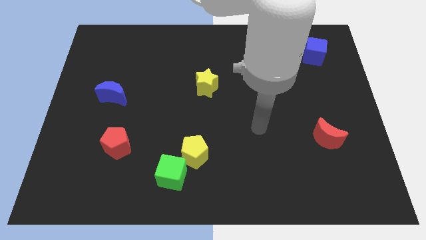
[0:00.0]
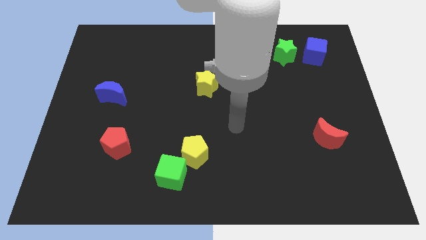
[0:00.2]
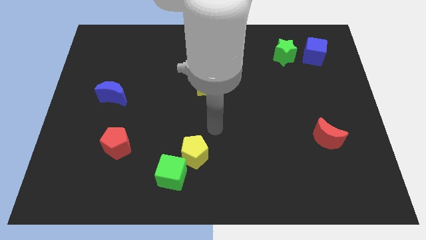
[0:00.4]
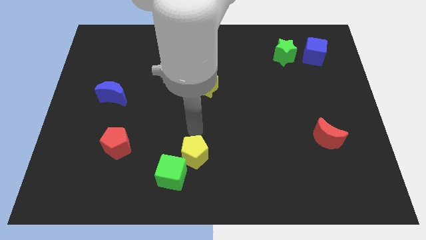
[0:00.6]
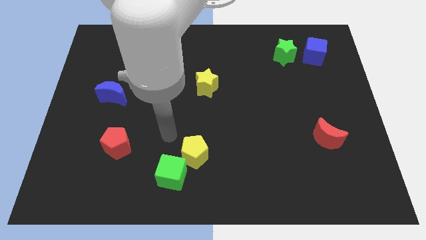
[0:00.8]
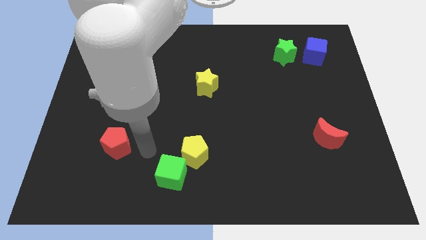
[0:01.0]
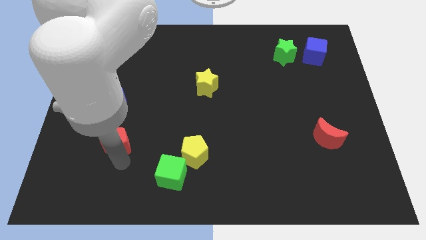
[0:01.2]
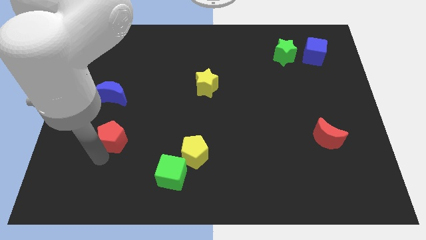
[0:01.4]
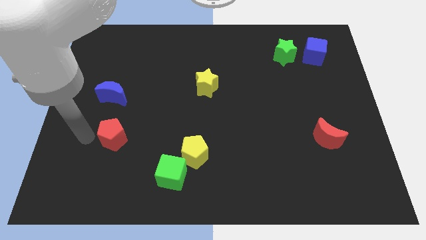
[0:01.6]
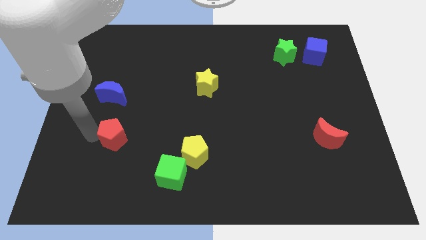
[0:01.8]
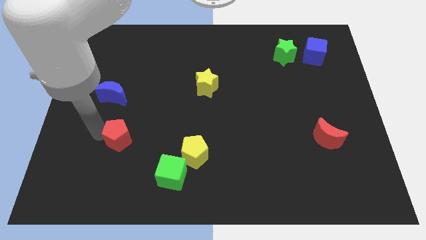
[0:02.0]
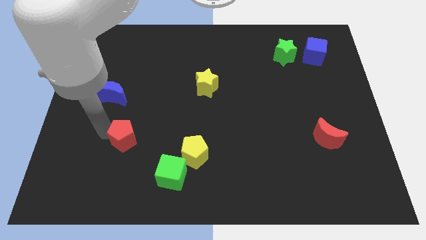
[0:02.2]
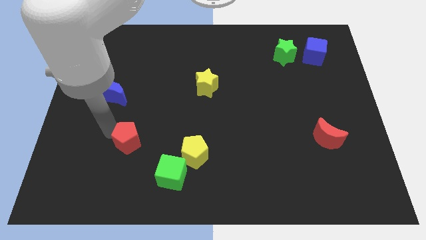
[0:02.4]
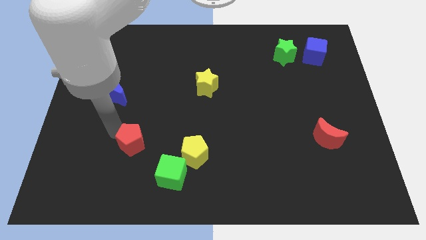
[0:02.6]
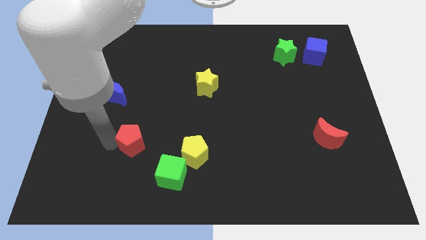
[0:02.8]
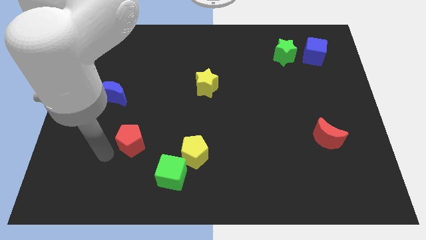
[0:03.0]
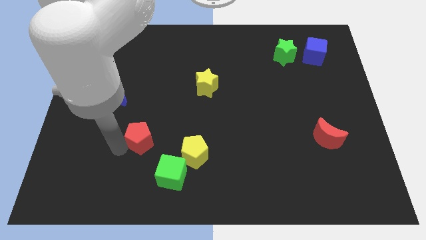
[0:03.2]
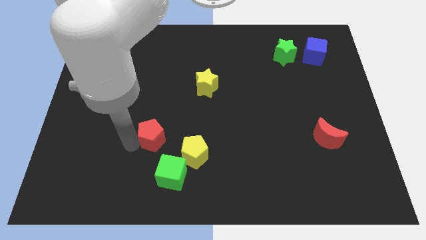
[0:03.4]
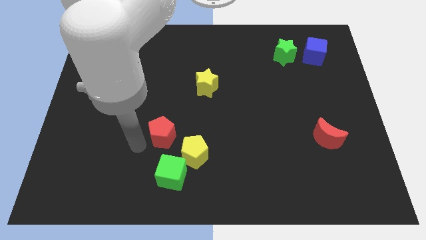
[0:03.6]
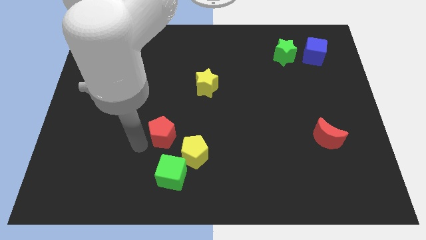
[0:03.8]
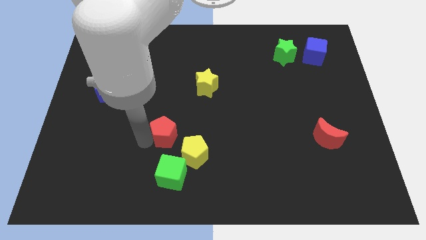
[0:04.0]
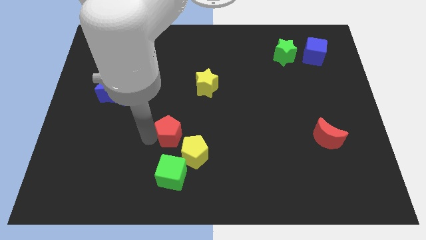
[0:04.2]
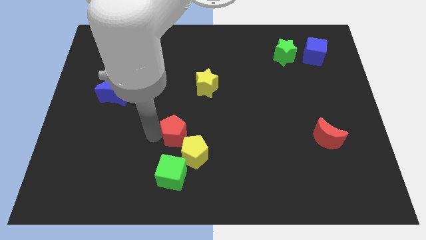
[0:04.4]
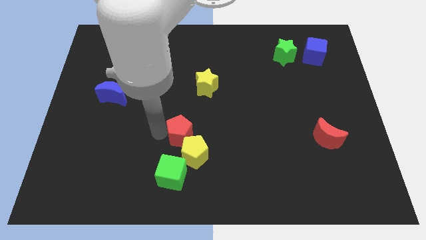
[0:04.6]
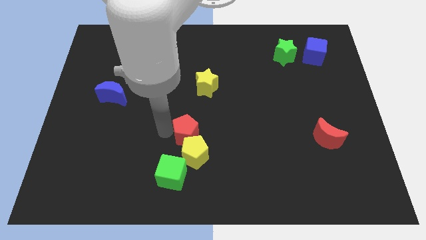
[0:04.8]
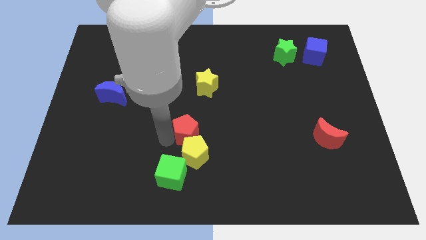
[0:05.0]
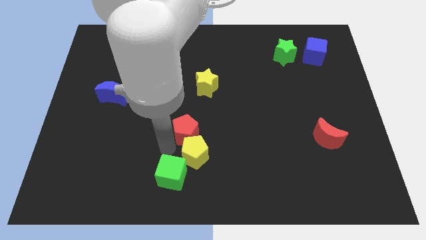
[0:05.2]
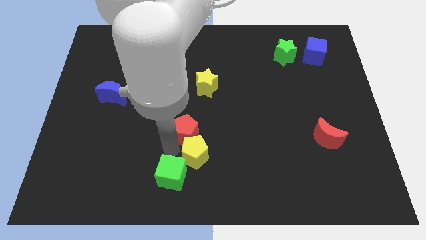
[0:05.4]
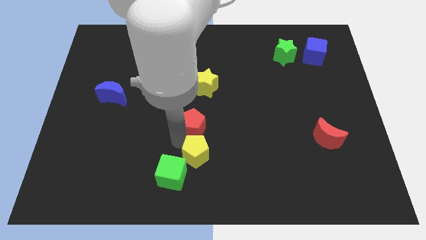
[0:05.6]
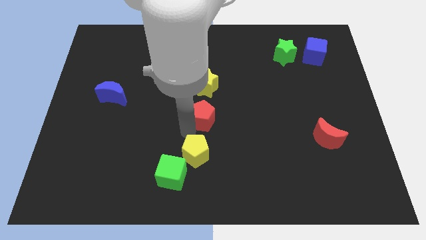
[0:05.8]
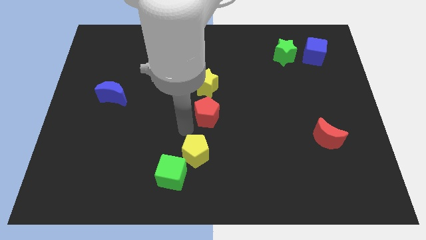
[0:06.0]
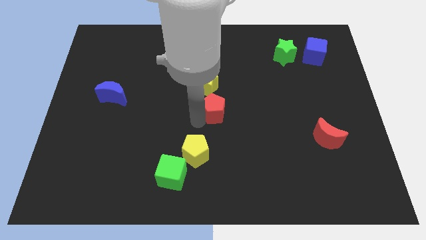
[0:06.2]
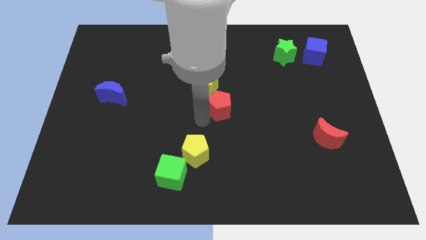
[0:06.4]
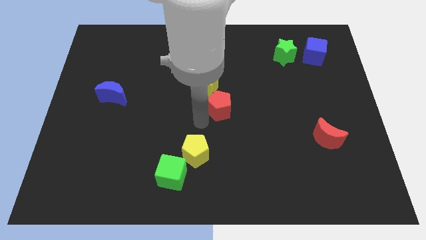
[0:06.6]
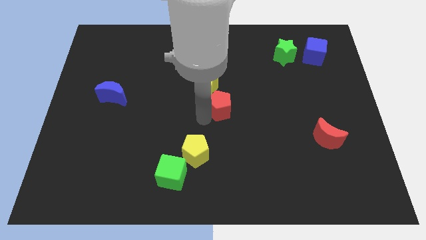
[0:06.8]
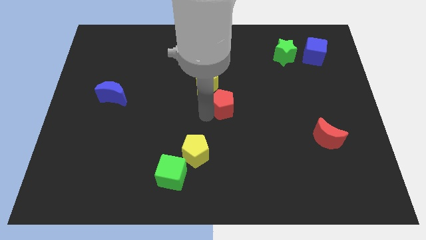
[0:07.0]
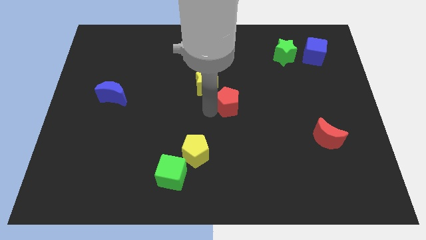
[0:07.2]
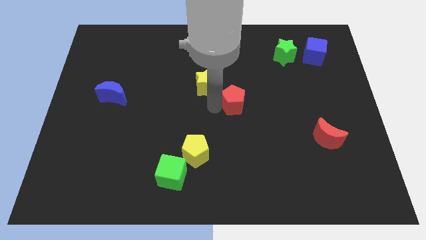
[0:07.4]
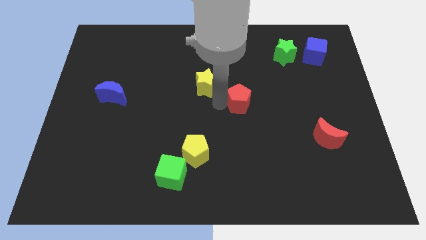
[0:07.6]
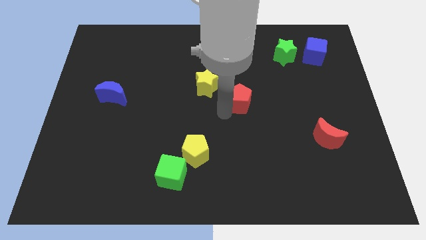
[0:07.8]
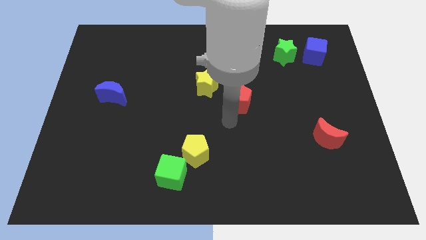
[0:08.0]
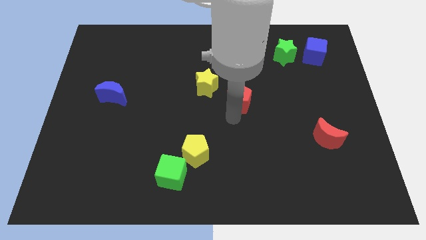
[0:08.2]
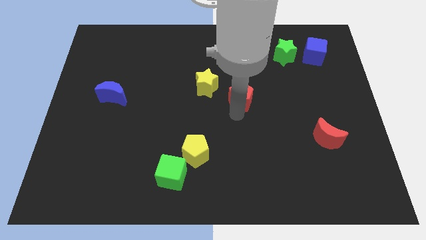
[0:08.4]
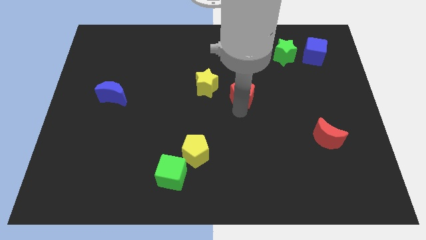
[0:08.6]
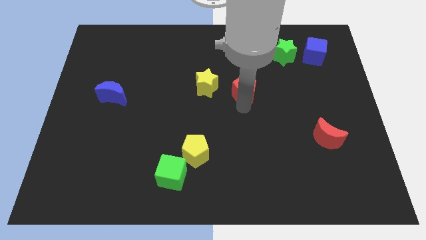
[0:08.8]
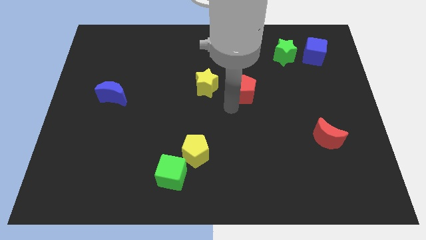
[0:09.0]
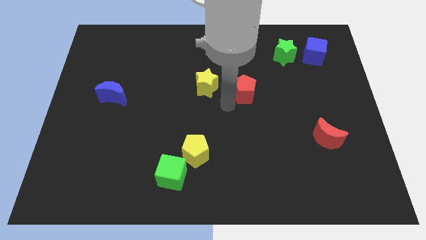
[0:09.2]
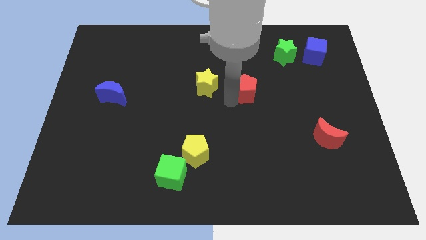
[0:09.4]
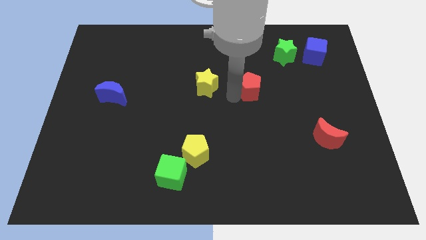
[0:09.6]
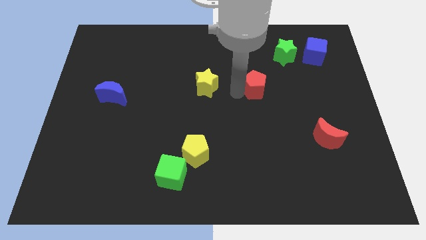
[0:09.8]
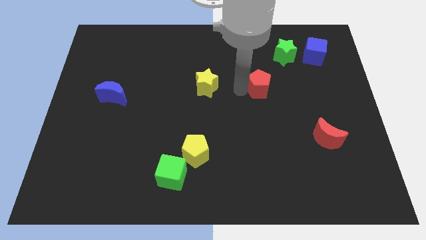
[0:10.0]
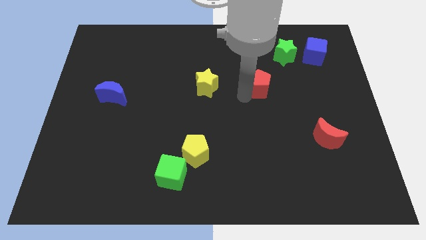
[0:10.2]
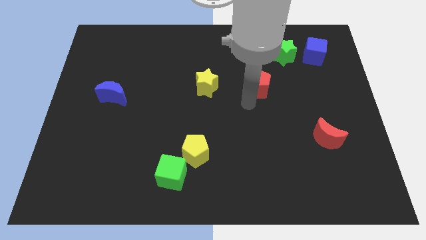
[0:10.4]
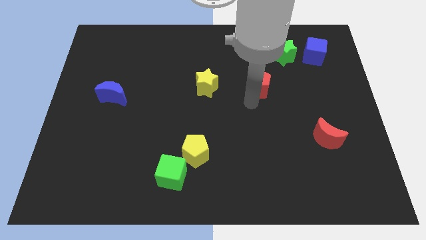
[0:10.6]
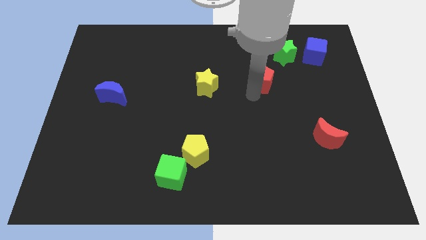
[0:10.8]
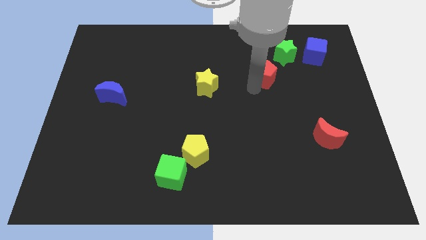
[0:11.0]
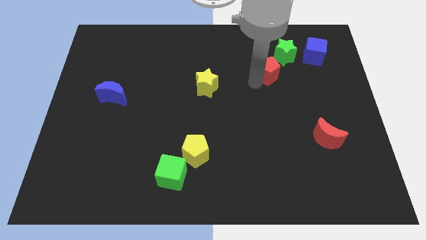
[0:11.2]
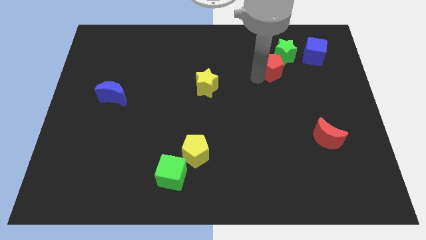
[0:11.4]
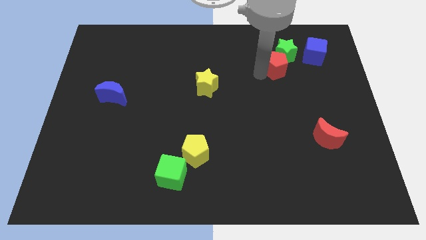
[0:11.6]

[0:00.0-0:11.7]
put the red pentagon diagonally down and to the left of the blue cube

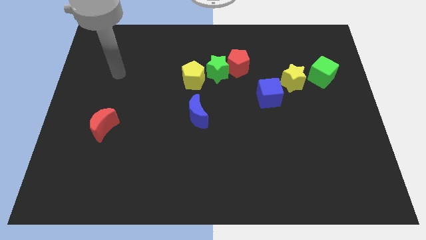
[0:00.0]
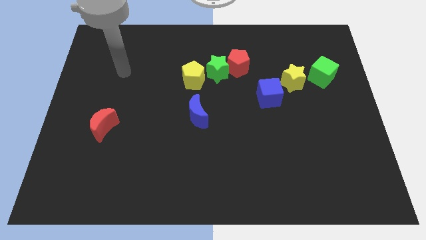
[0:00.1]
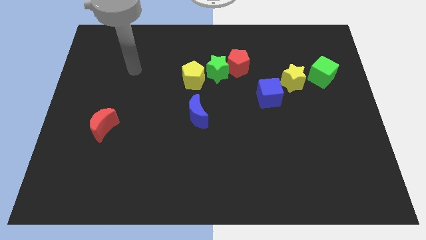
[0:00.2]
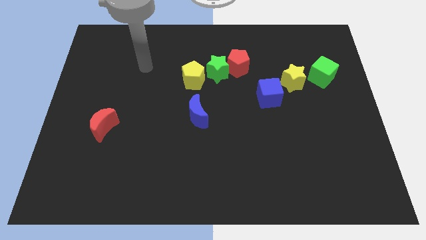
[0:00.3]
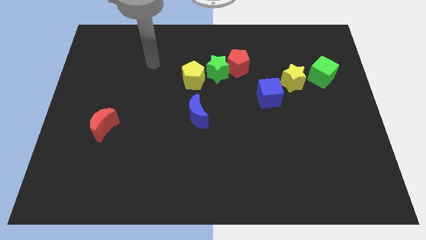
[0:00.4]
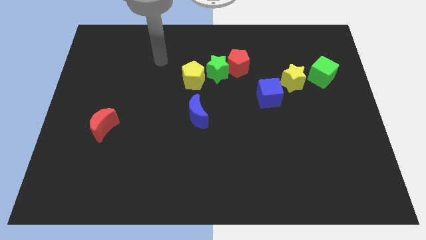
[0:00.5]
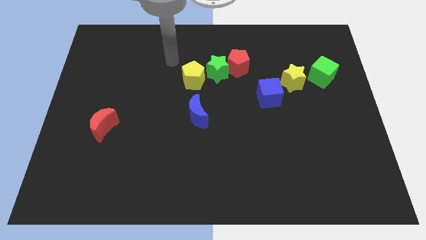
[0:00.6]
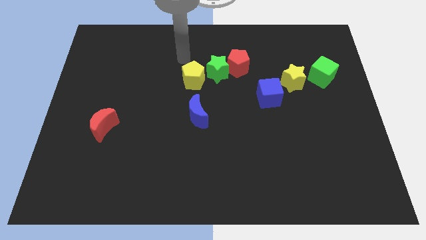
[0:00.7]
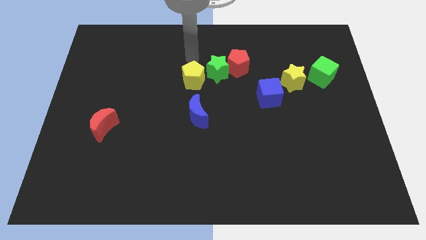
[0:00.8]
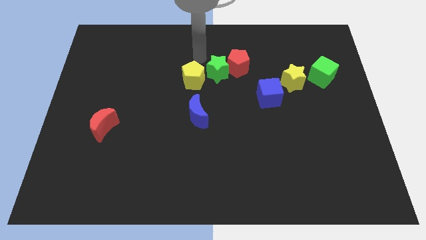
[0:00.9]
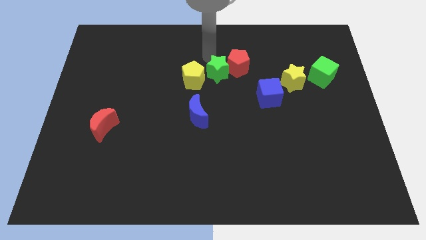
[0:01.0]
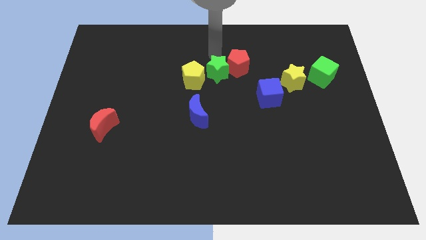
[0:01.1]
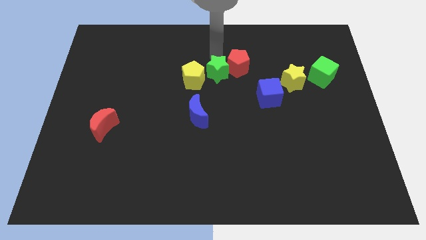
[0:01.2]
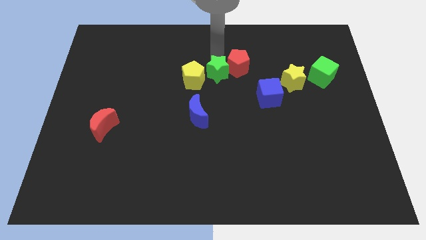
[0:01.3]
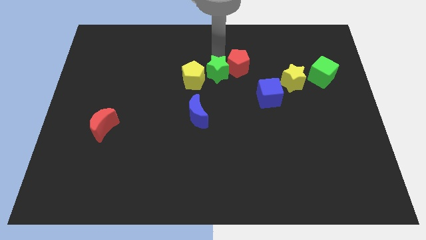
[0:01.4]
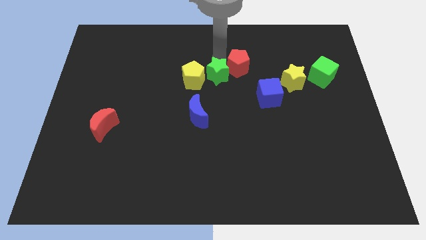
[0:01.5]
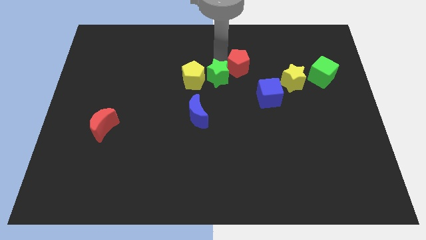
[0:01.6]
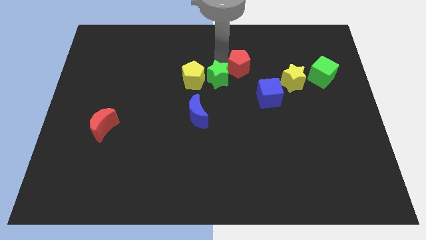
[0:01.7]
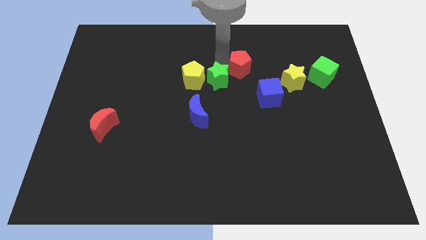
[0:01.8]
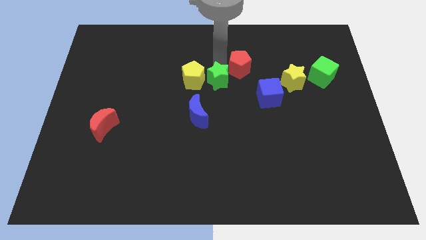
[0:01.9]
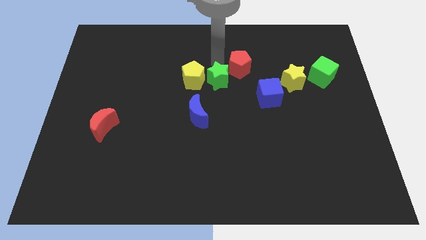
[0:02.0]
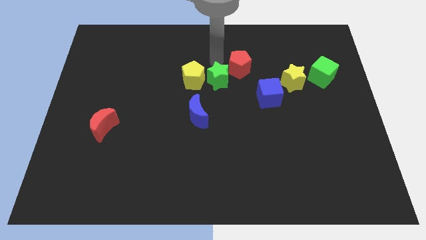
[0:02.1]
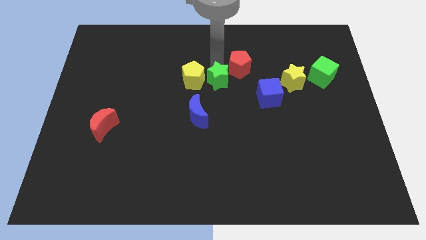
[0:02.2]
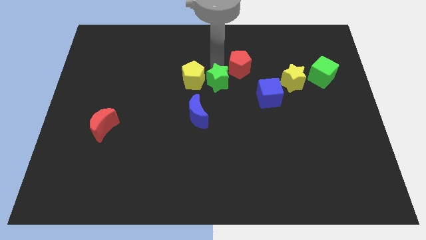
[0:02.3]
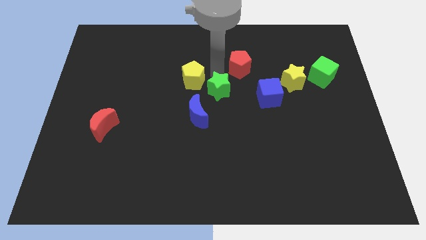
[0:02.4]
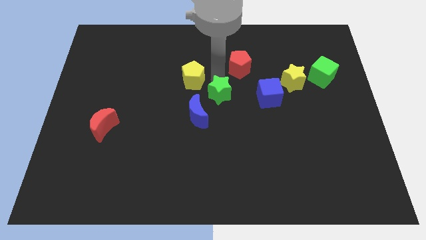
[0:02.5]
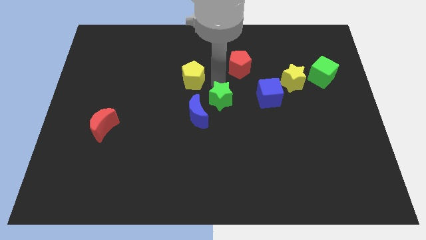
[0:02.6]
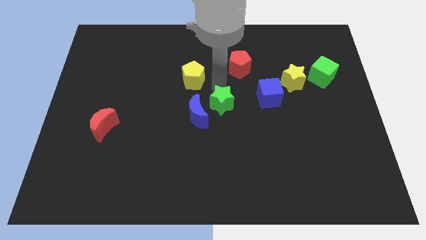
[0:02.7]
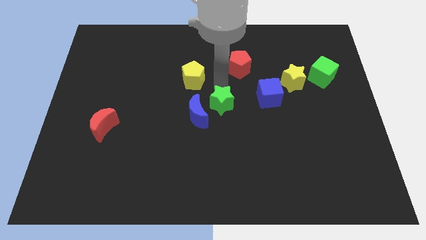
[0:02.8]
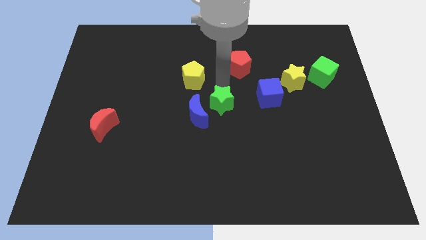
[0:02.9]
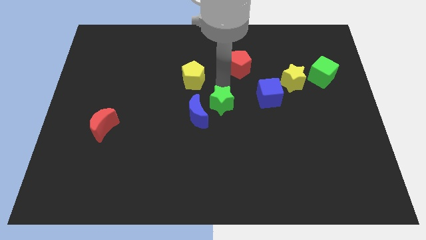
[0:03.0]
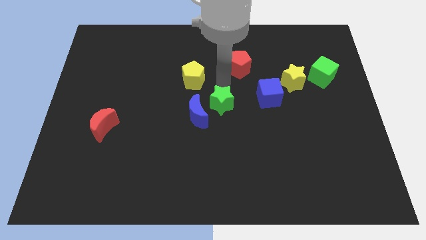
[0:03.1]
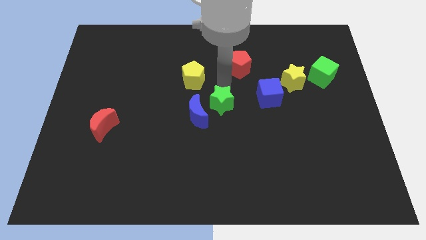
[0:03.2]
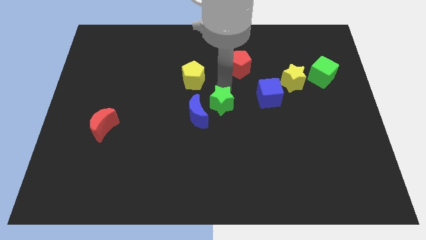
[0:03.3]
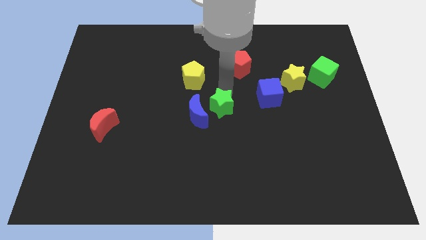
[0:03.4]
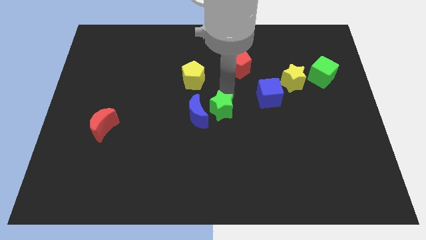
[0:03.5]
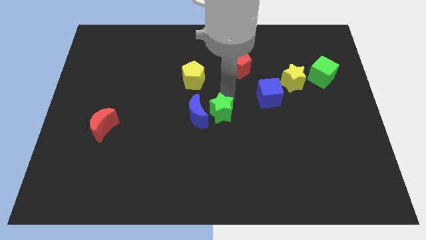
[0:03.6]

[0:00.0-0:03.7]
push the green star diagonally down and to the right of the blue moon
